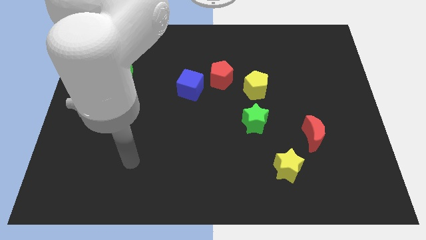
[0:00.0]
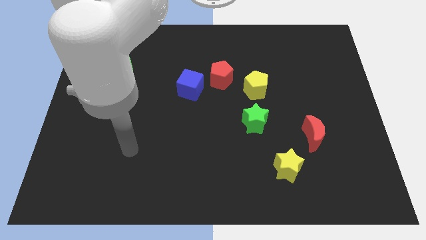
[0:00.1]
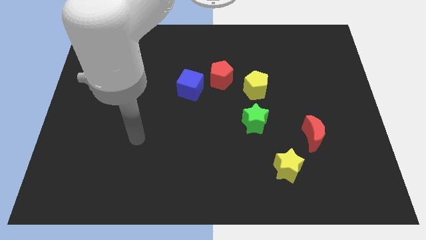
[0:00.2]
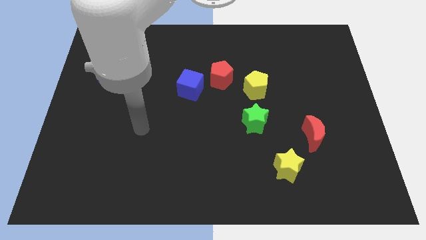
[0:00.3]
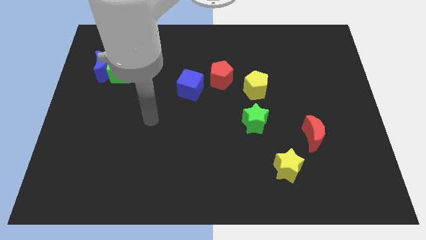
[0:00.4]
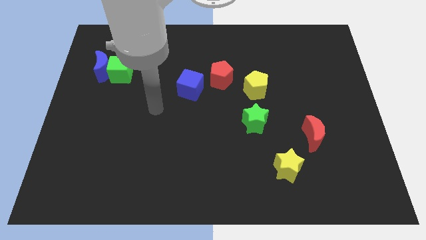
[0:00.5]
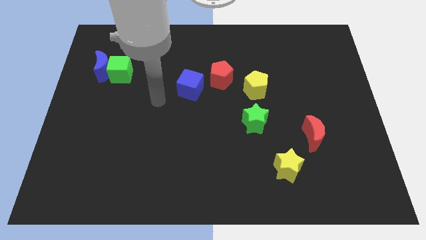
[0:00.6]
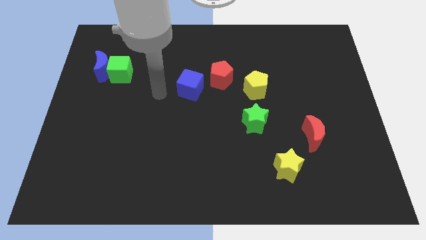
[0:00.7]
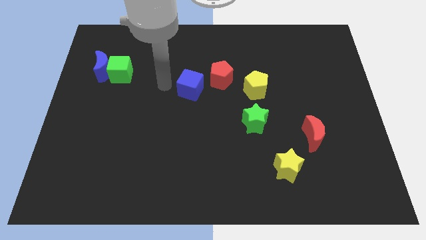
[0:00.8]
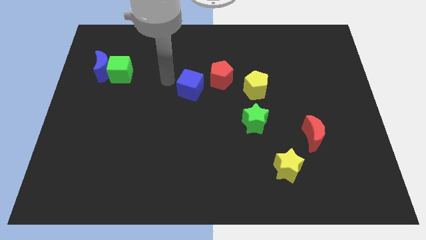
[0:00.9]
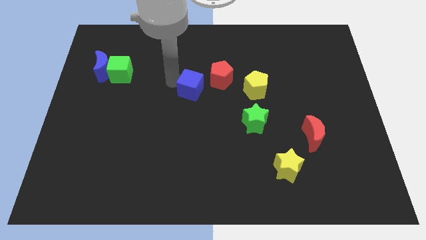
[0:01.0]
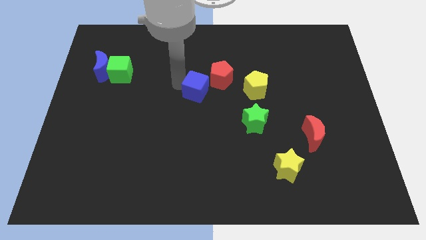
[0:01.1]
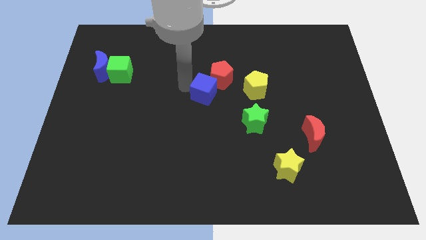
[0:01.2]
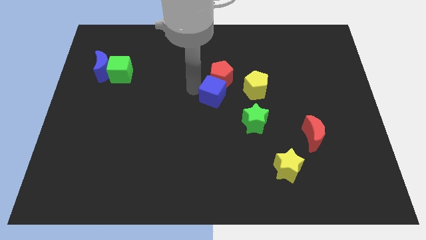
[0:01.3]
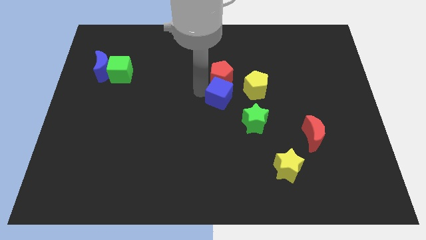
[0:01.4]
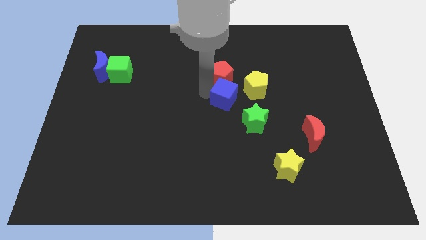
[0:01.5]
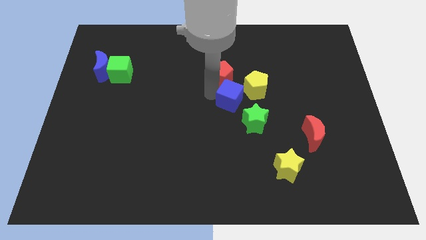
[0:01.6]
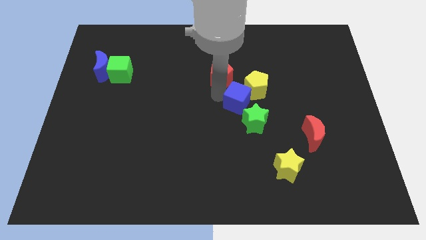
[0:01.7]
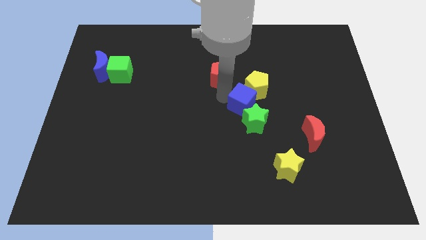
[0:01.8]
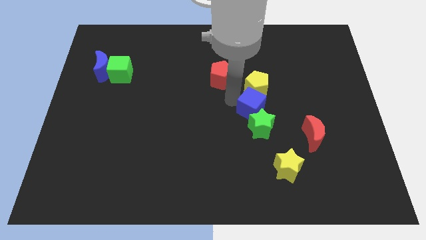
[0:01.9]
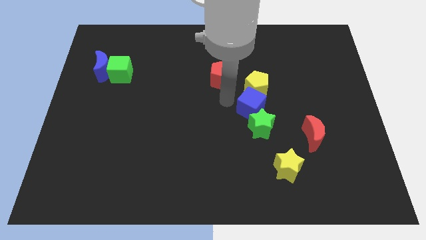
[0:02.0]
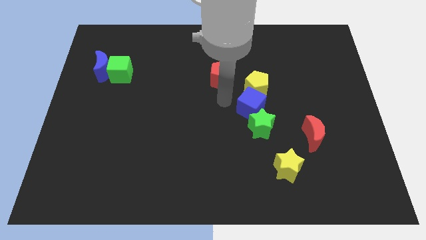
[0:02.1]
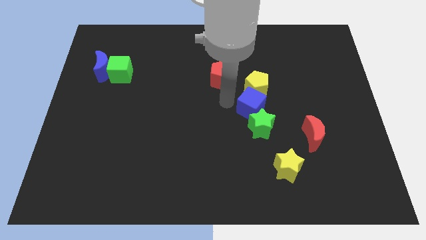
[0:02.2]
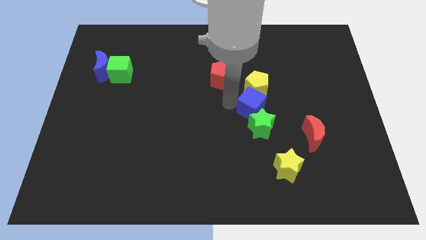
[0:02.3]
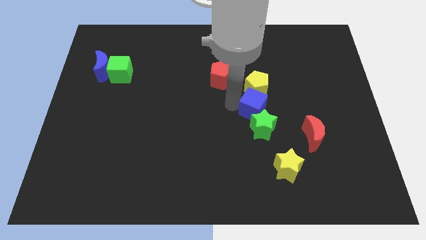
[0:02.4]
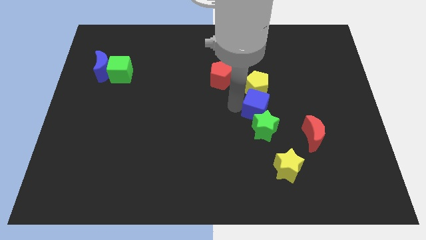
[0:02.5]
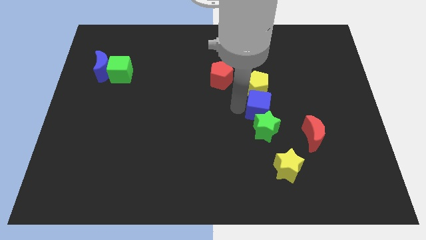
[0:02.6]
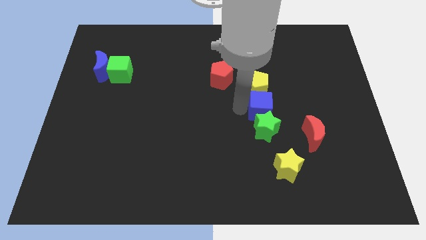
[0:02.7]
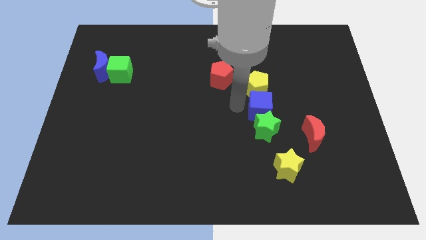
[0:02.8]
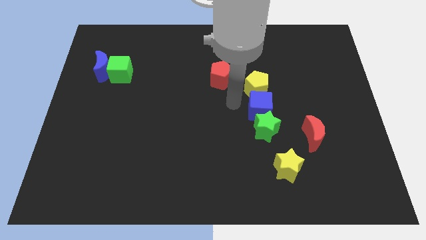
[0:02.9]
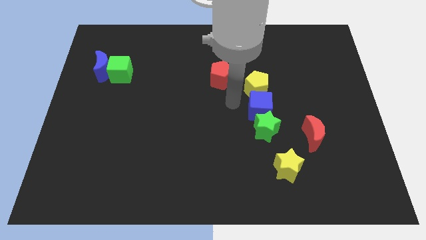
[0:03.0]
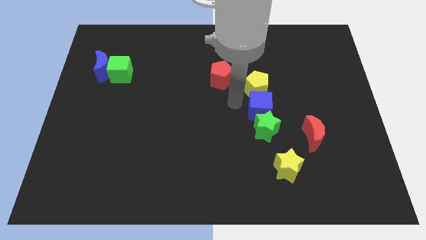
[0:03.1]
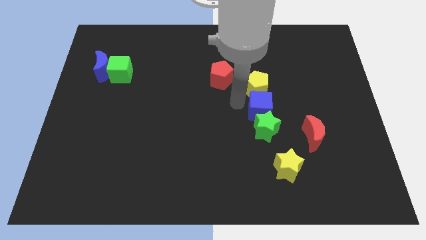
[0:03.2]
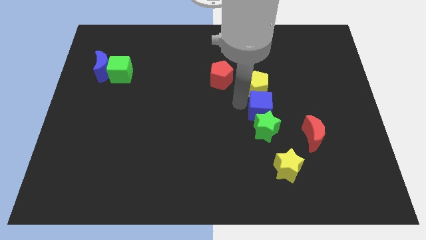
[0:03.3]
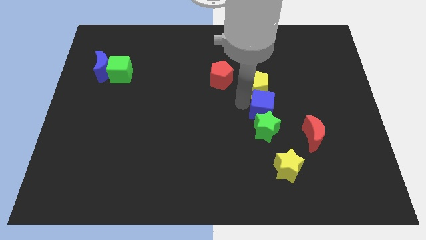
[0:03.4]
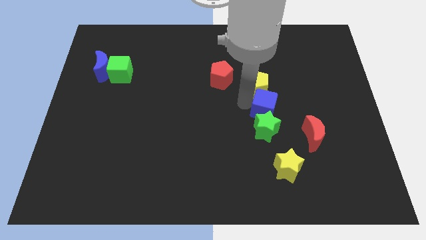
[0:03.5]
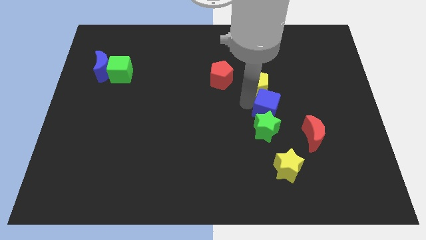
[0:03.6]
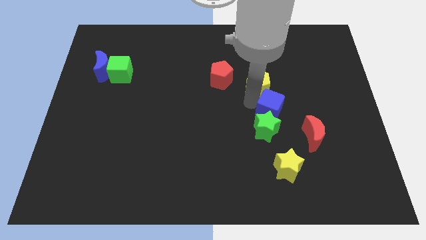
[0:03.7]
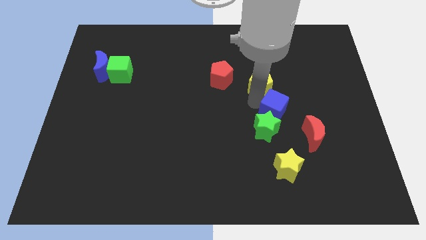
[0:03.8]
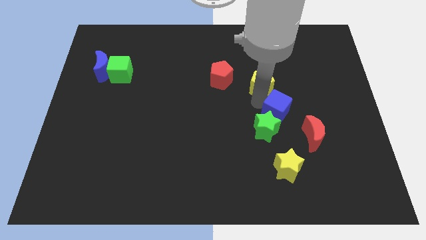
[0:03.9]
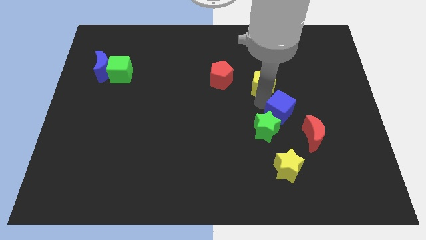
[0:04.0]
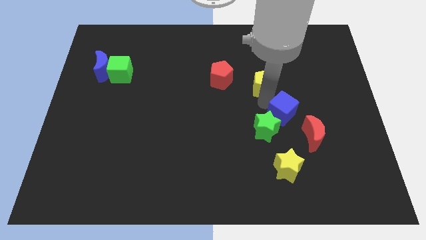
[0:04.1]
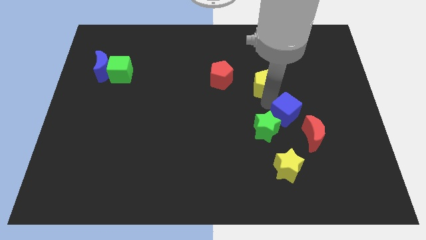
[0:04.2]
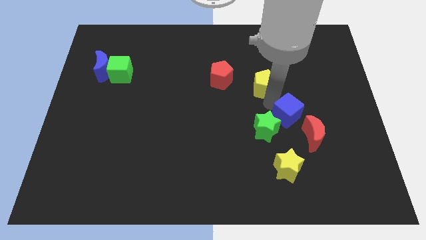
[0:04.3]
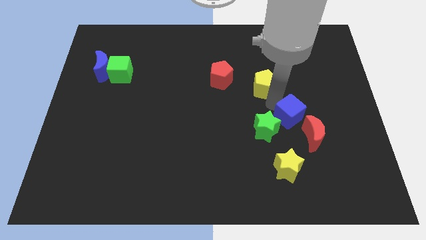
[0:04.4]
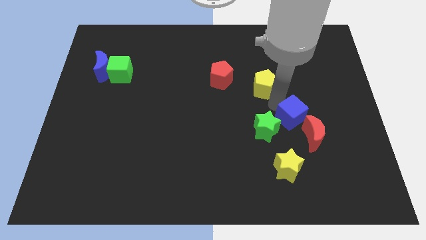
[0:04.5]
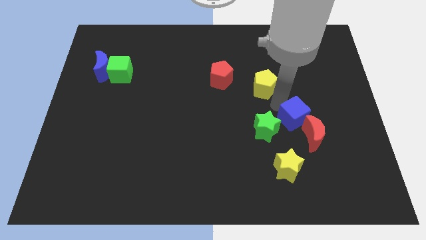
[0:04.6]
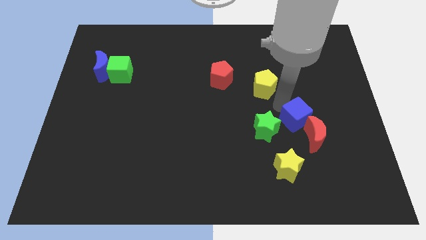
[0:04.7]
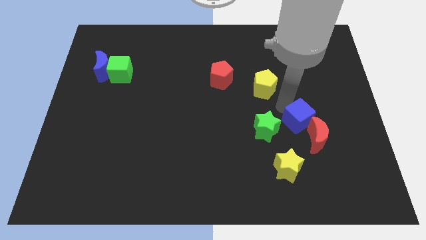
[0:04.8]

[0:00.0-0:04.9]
move the blue cube next to the red moon

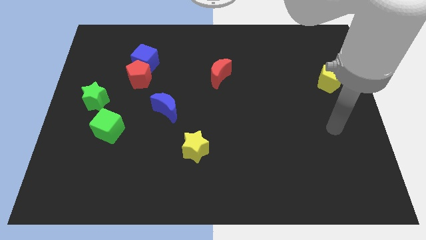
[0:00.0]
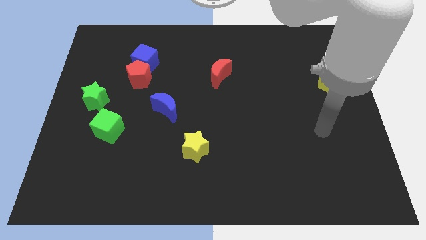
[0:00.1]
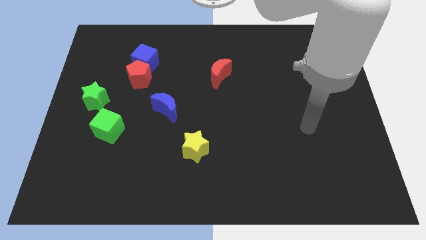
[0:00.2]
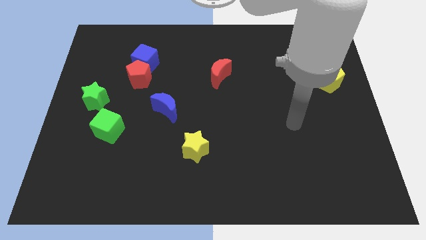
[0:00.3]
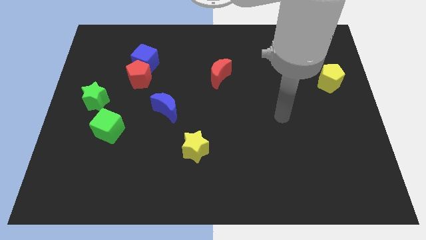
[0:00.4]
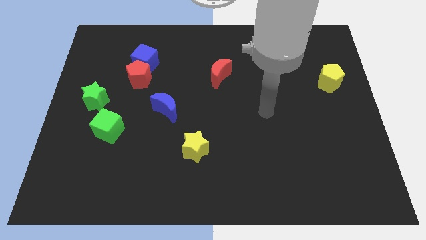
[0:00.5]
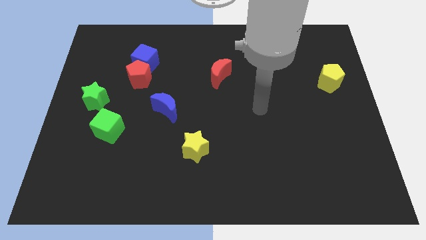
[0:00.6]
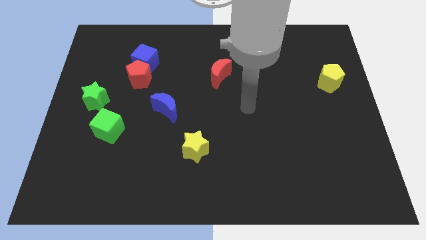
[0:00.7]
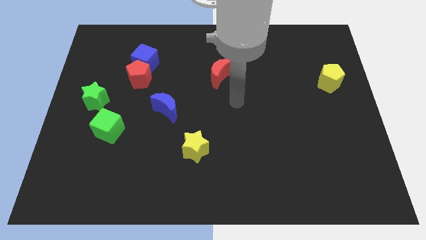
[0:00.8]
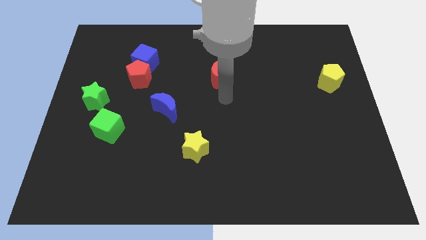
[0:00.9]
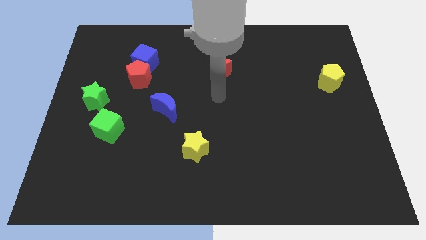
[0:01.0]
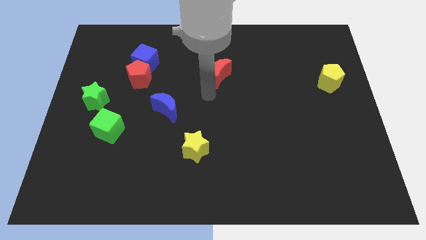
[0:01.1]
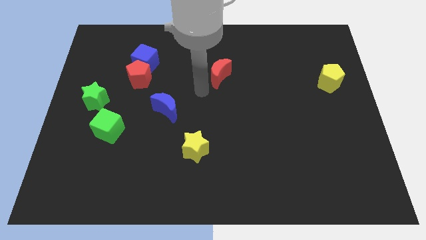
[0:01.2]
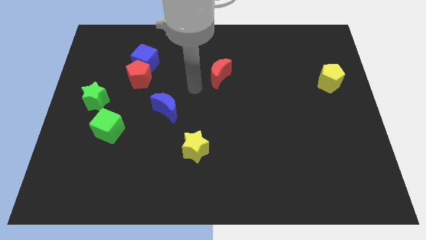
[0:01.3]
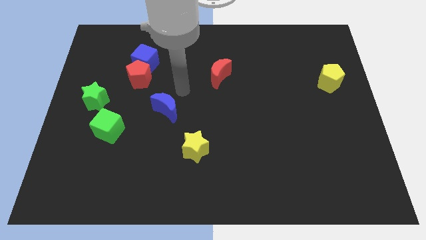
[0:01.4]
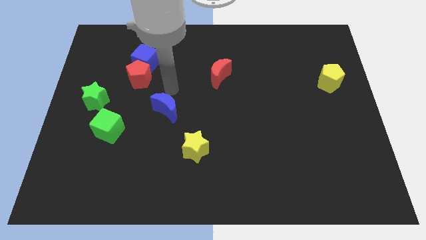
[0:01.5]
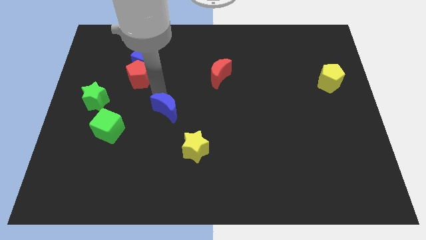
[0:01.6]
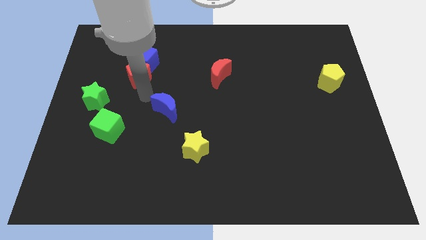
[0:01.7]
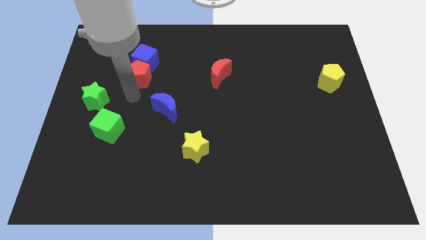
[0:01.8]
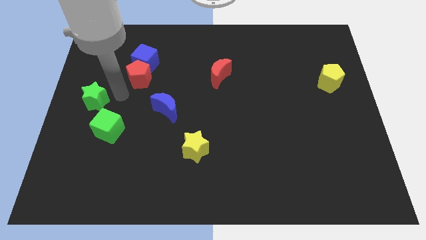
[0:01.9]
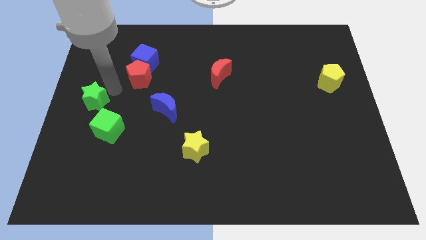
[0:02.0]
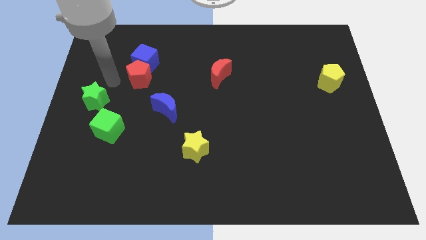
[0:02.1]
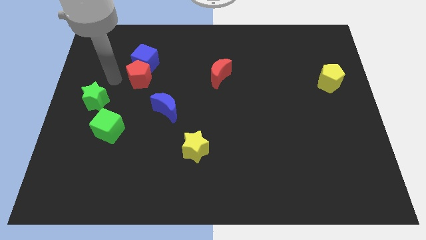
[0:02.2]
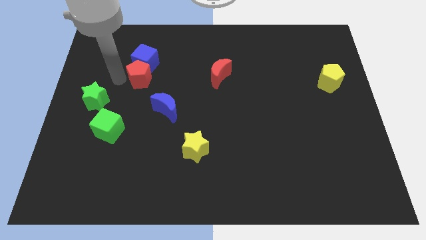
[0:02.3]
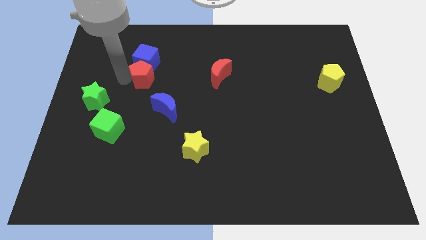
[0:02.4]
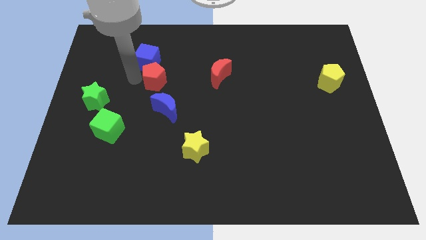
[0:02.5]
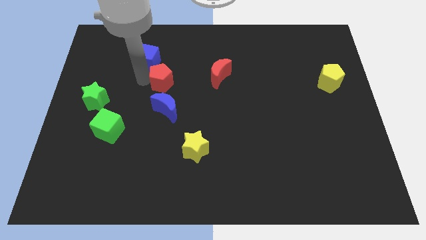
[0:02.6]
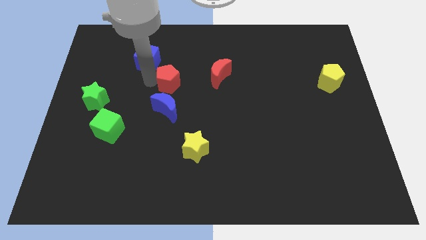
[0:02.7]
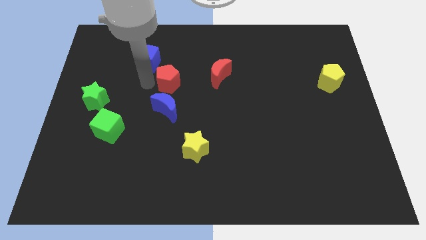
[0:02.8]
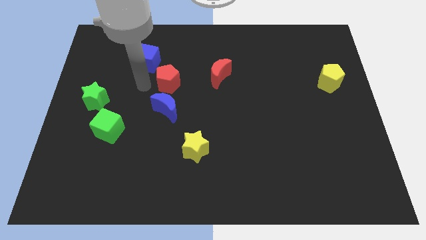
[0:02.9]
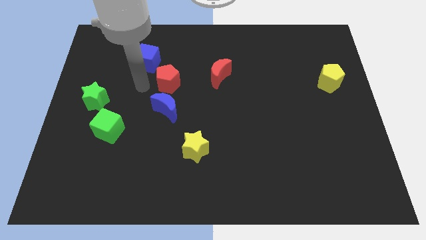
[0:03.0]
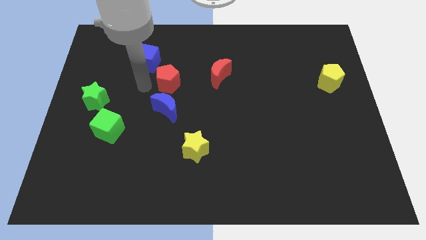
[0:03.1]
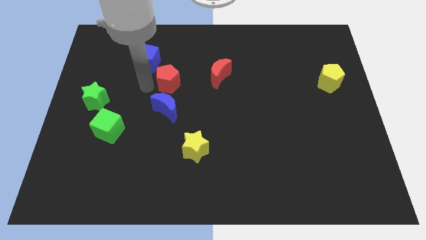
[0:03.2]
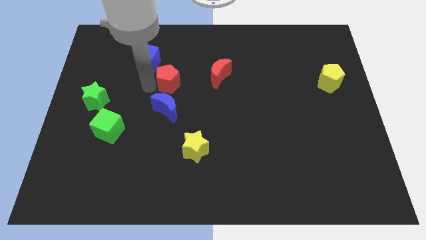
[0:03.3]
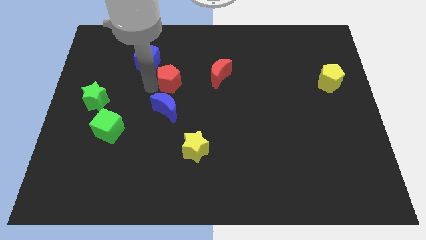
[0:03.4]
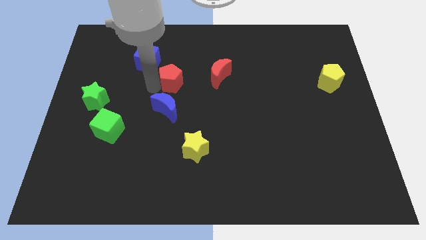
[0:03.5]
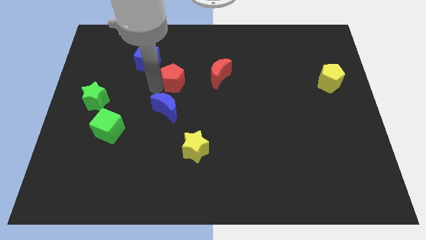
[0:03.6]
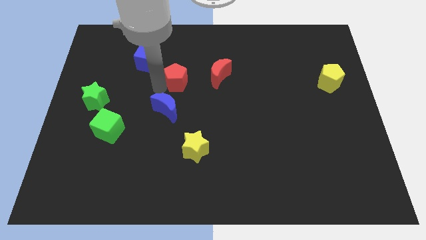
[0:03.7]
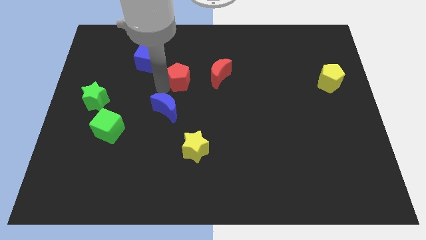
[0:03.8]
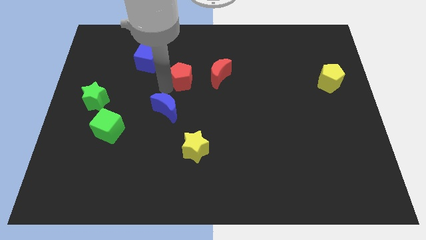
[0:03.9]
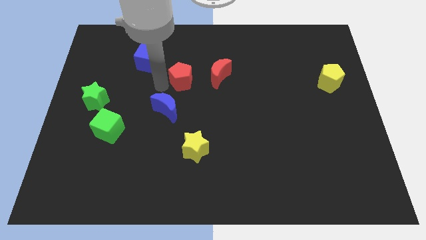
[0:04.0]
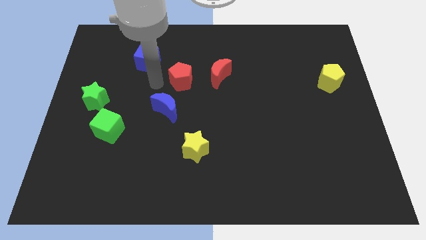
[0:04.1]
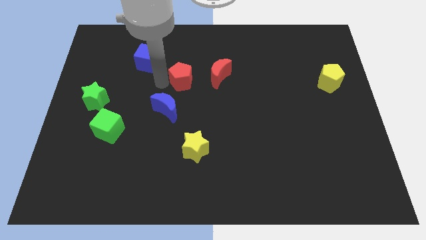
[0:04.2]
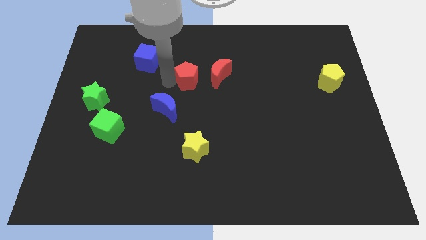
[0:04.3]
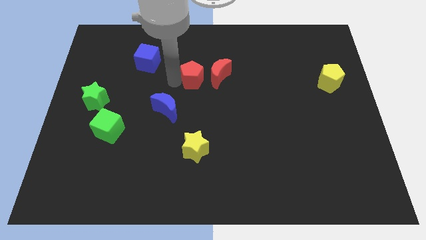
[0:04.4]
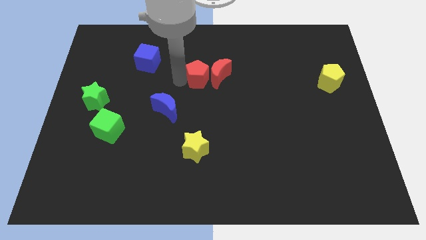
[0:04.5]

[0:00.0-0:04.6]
push the red pentagon next to the red moon
